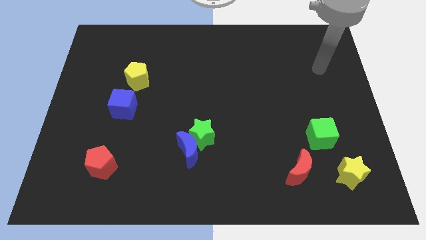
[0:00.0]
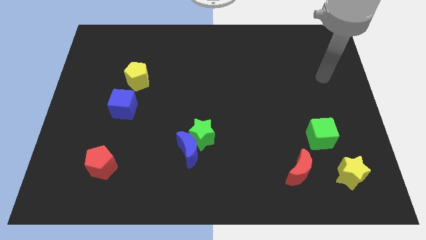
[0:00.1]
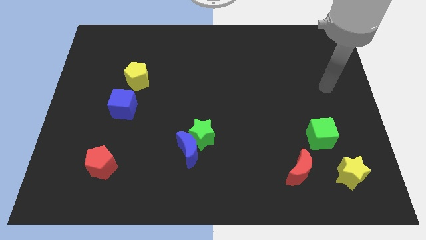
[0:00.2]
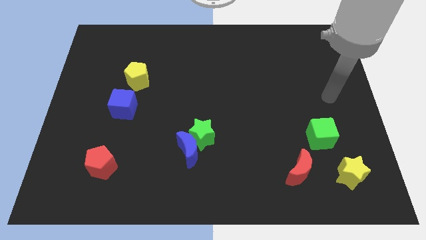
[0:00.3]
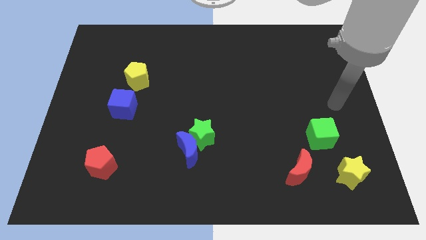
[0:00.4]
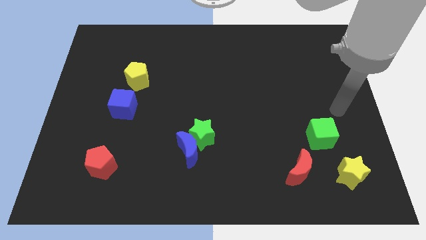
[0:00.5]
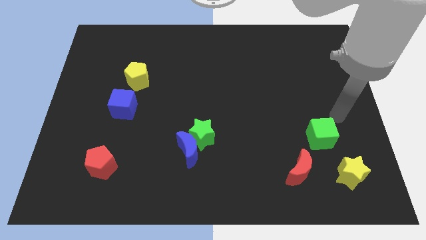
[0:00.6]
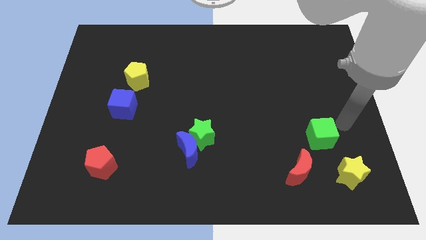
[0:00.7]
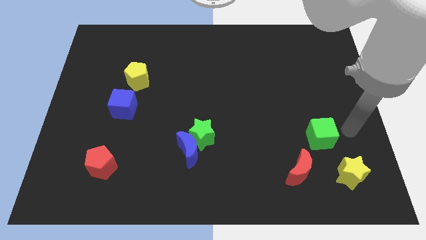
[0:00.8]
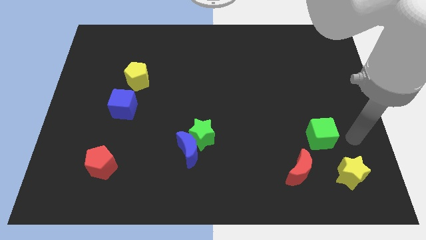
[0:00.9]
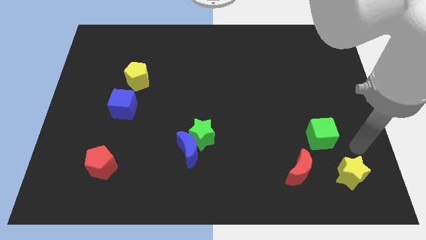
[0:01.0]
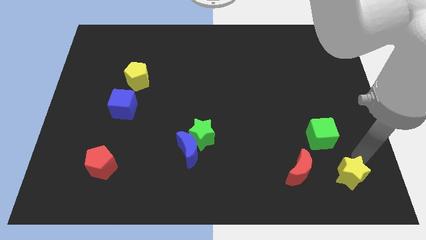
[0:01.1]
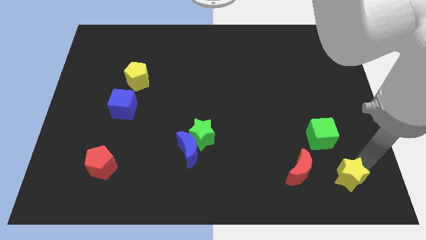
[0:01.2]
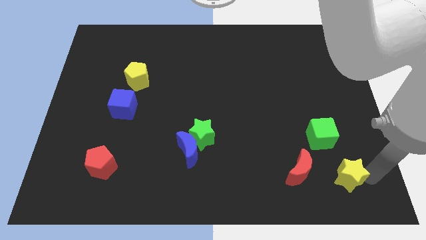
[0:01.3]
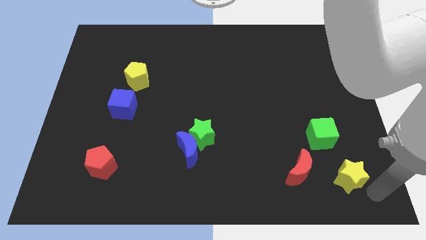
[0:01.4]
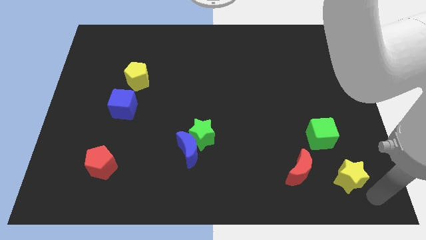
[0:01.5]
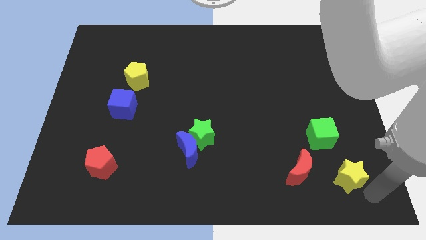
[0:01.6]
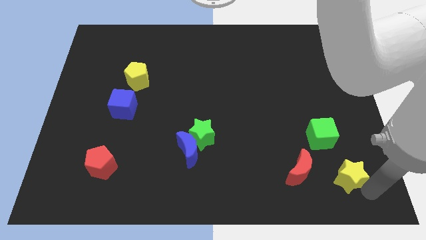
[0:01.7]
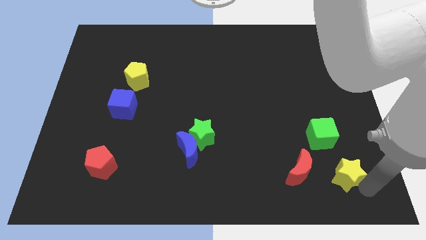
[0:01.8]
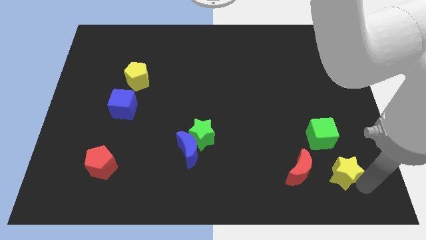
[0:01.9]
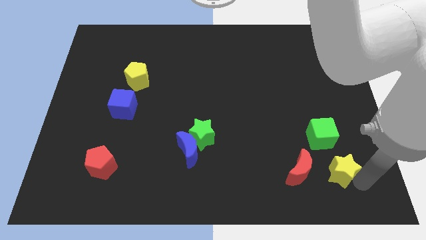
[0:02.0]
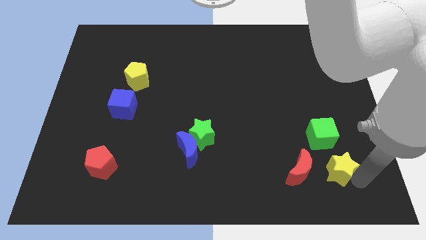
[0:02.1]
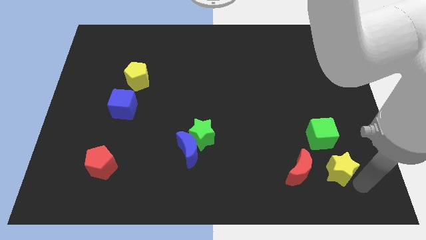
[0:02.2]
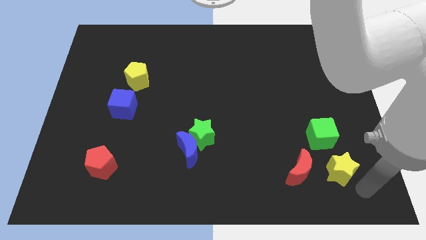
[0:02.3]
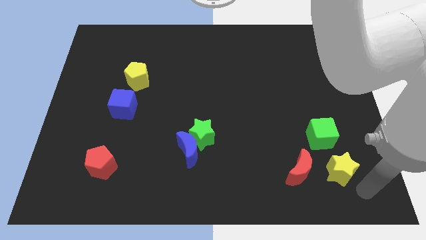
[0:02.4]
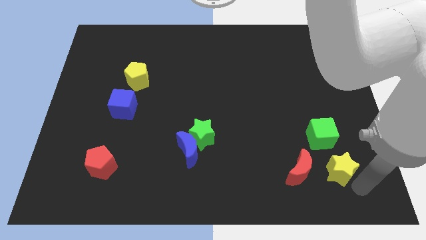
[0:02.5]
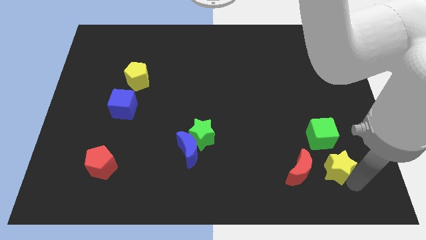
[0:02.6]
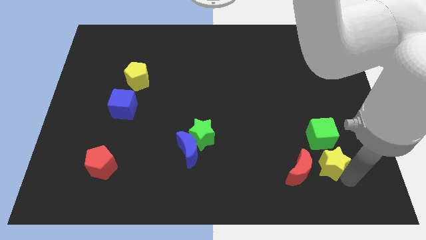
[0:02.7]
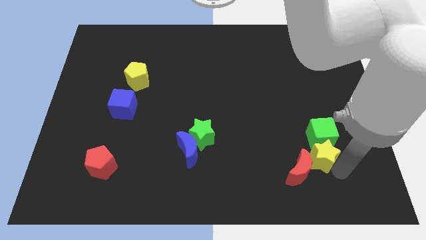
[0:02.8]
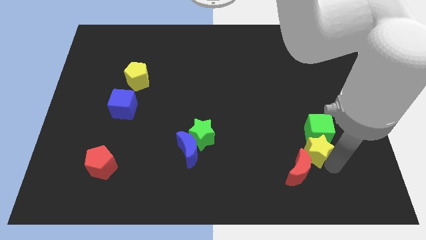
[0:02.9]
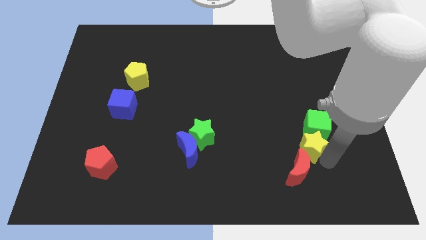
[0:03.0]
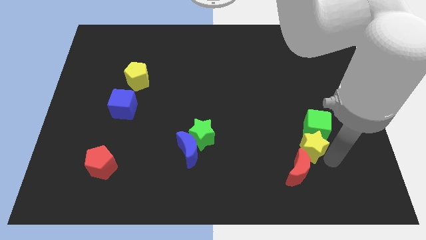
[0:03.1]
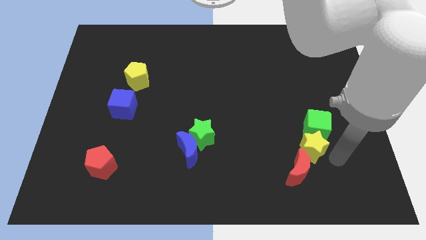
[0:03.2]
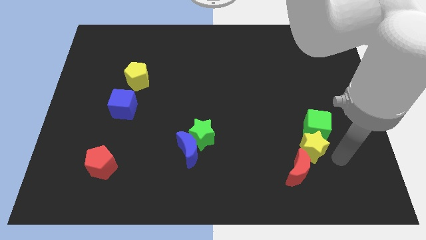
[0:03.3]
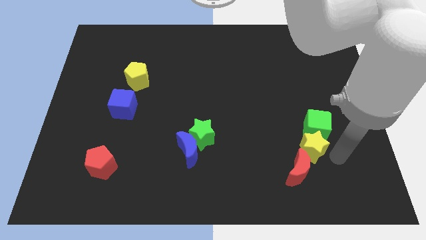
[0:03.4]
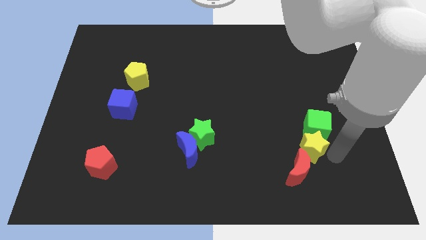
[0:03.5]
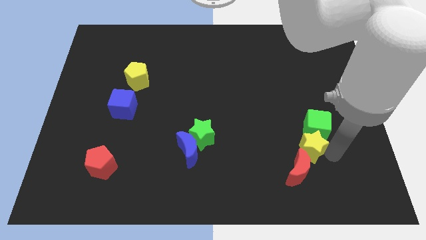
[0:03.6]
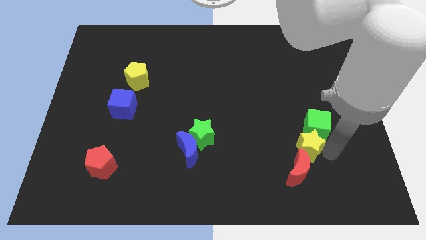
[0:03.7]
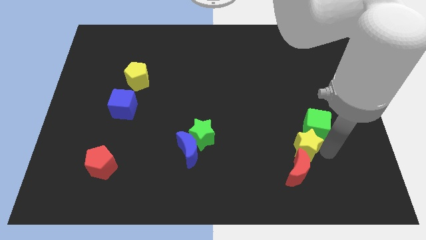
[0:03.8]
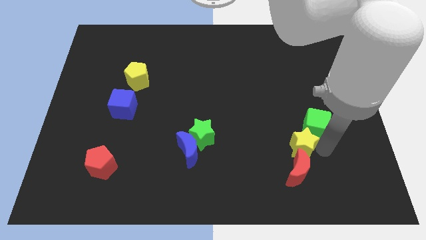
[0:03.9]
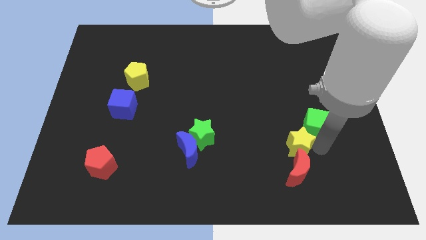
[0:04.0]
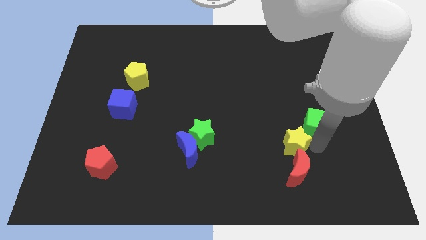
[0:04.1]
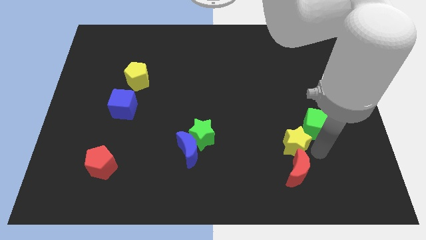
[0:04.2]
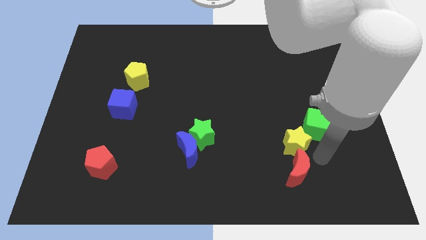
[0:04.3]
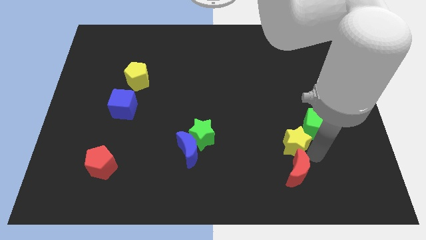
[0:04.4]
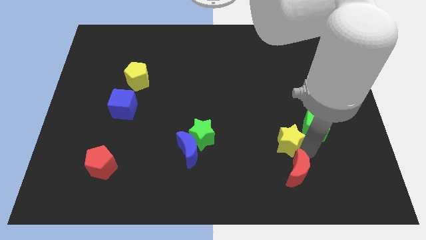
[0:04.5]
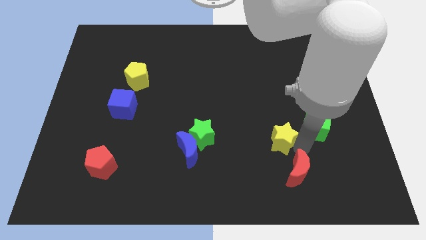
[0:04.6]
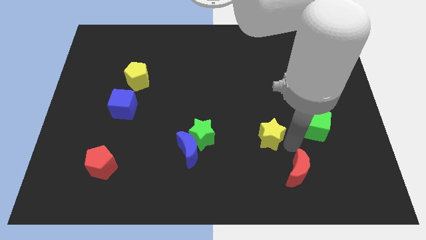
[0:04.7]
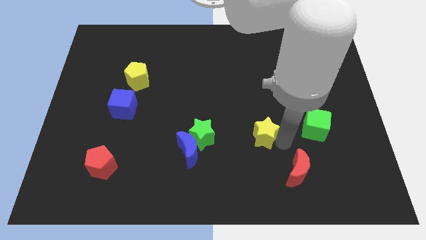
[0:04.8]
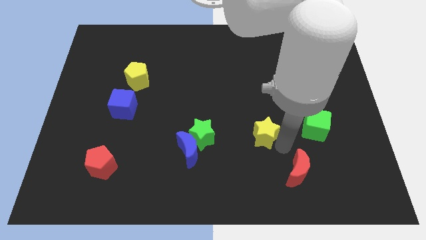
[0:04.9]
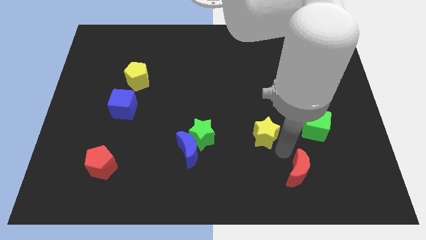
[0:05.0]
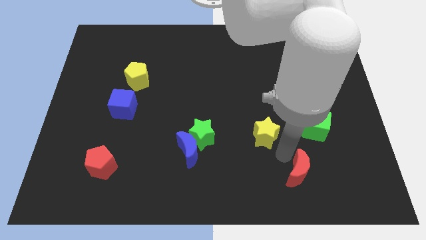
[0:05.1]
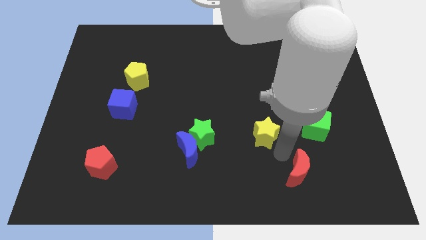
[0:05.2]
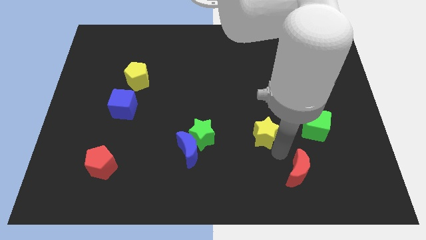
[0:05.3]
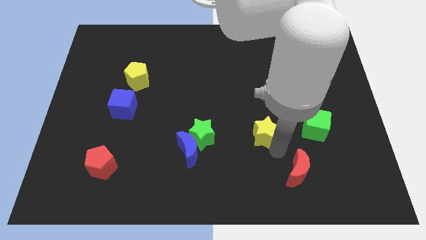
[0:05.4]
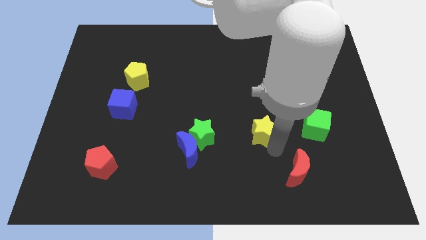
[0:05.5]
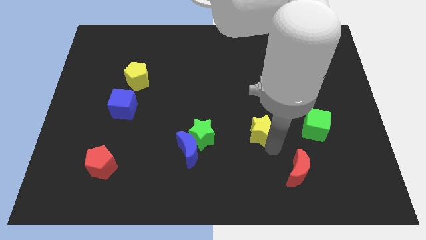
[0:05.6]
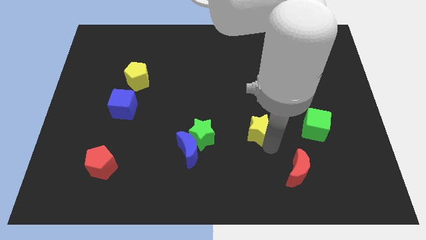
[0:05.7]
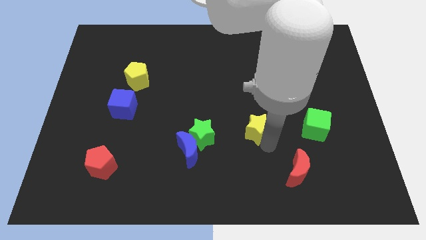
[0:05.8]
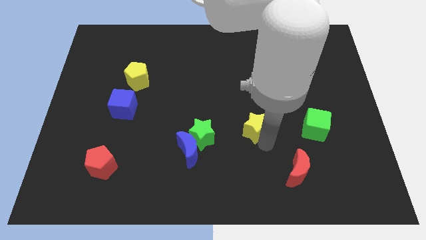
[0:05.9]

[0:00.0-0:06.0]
slide the yellow star to the center
